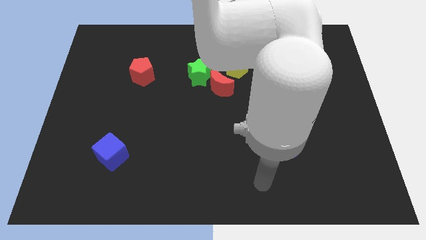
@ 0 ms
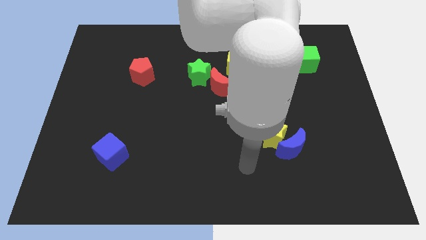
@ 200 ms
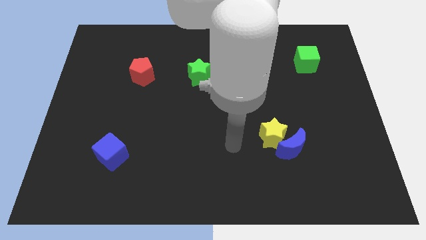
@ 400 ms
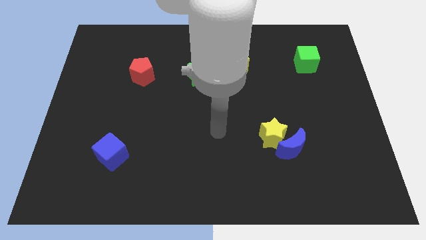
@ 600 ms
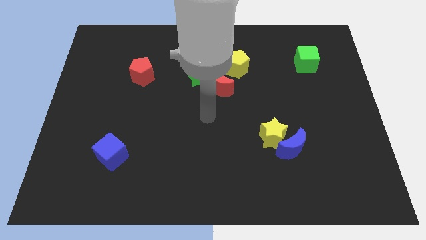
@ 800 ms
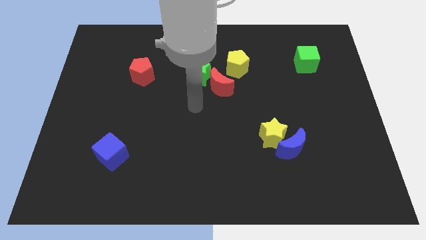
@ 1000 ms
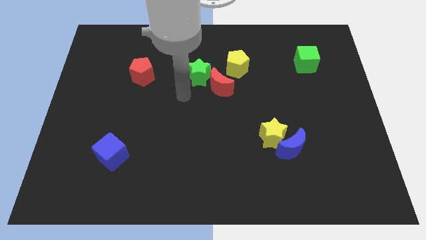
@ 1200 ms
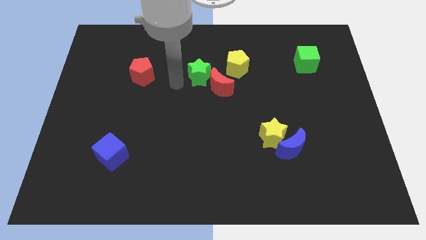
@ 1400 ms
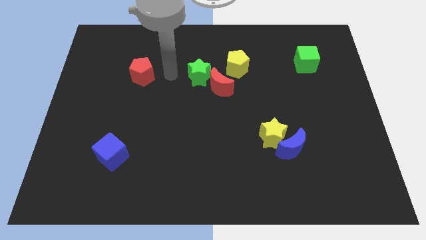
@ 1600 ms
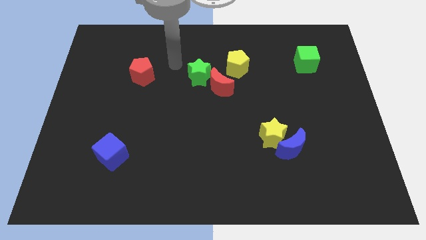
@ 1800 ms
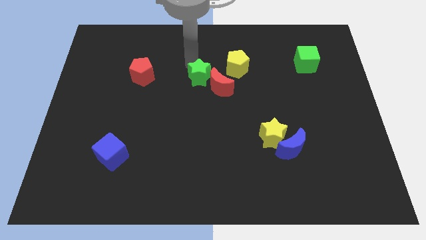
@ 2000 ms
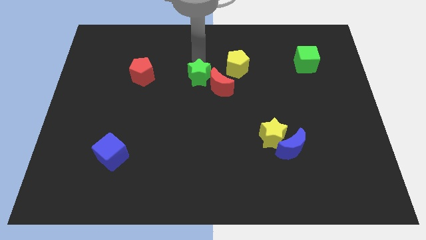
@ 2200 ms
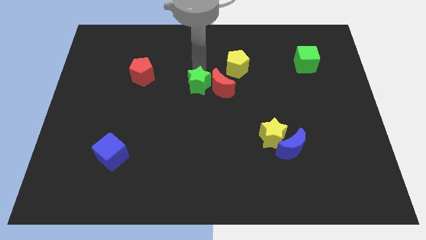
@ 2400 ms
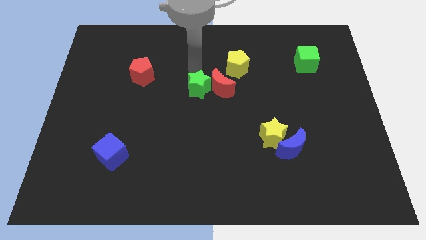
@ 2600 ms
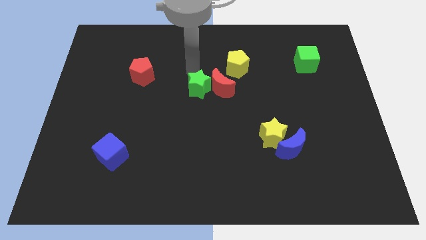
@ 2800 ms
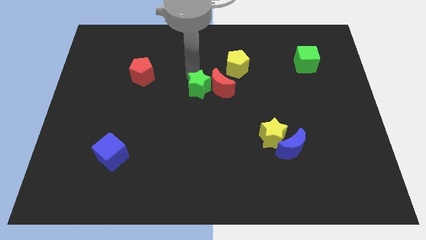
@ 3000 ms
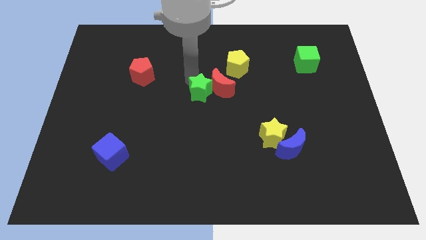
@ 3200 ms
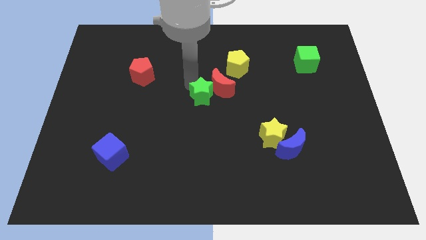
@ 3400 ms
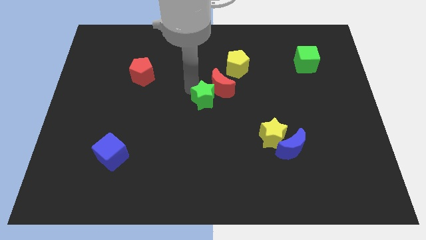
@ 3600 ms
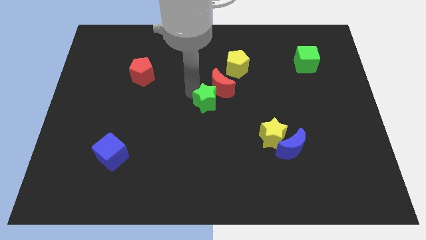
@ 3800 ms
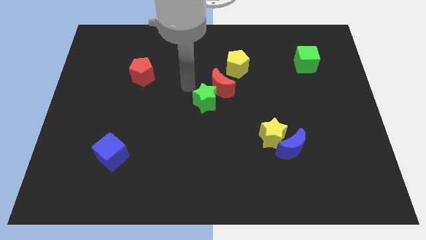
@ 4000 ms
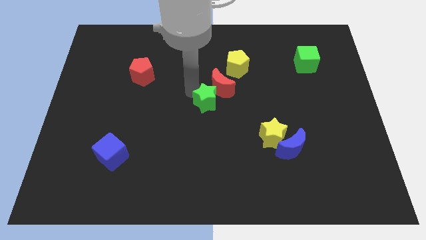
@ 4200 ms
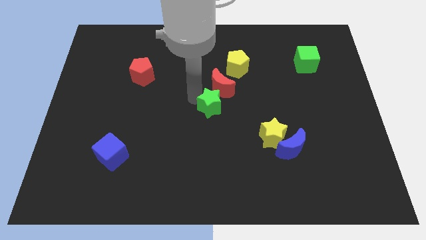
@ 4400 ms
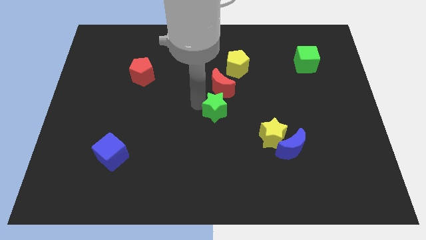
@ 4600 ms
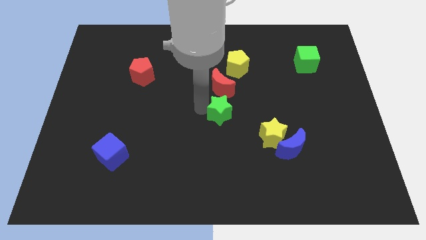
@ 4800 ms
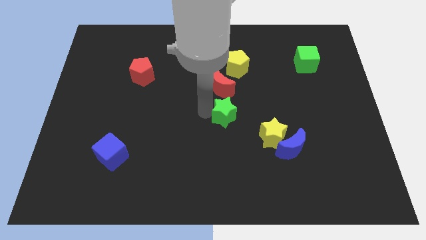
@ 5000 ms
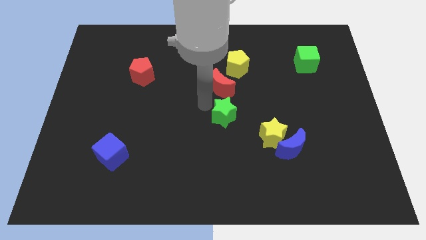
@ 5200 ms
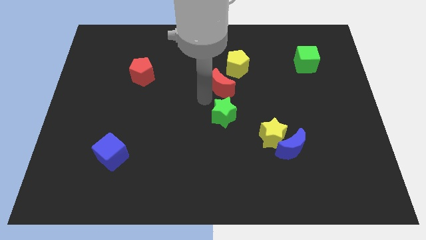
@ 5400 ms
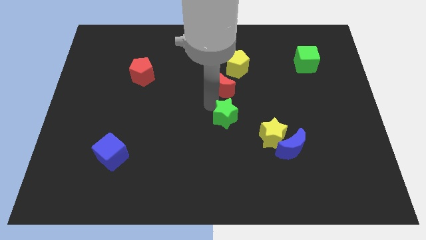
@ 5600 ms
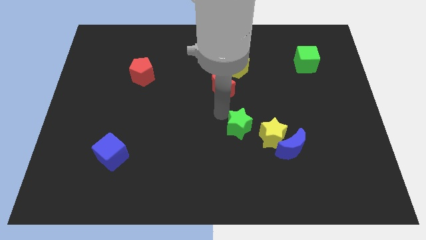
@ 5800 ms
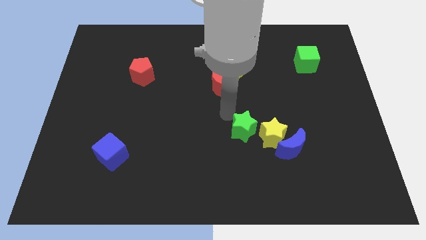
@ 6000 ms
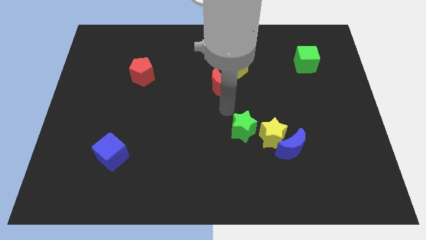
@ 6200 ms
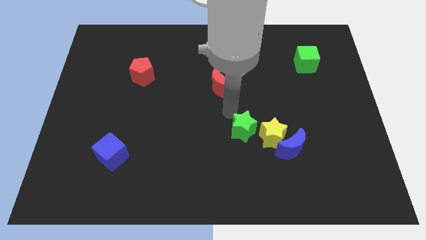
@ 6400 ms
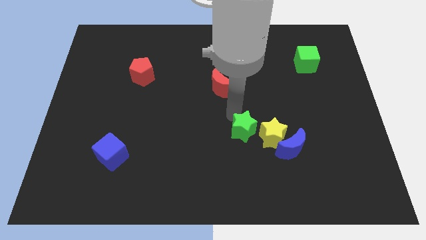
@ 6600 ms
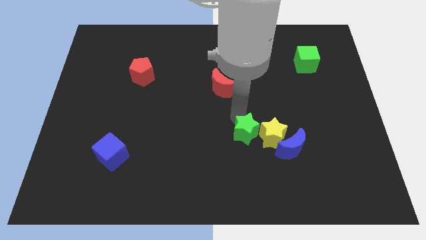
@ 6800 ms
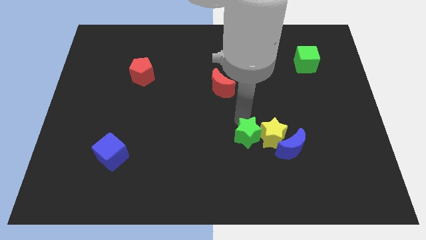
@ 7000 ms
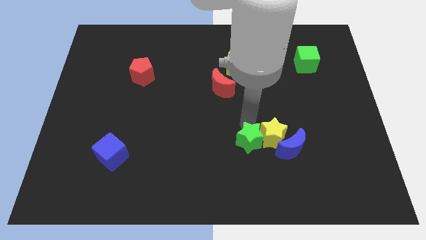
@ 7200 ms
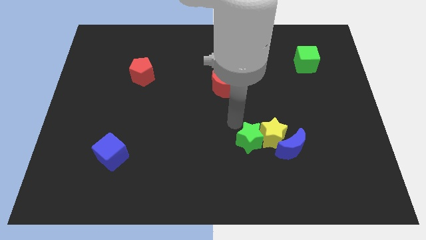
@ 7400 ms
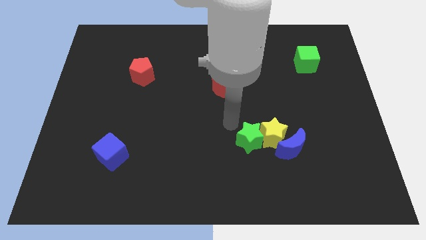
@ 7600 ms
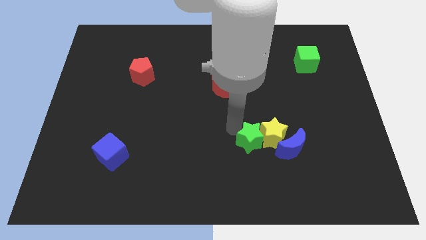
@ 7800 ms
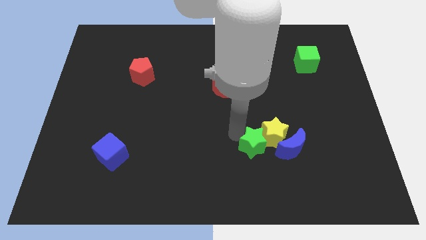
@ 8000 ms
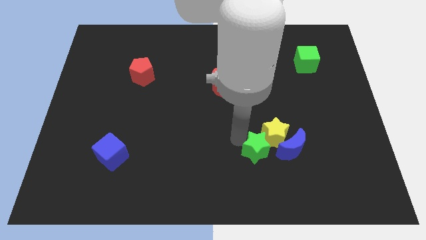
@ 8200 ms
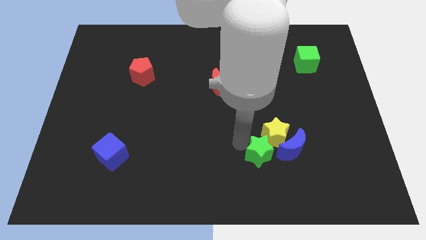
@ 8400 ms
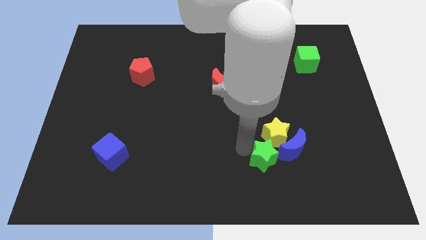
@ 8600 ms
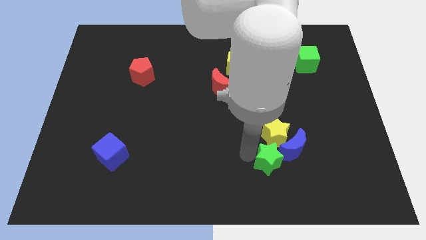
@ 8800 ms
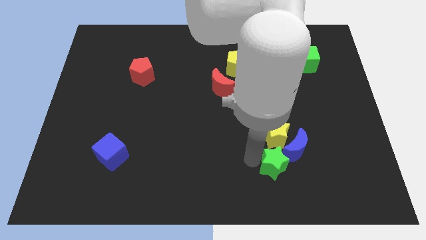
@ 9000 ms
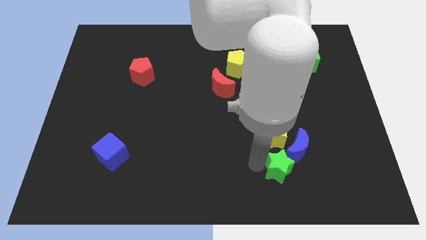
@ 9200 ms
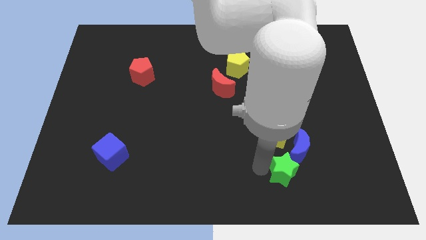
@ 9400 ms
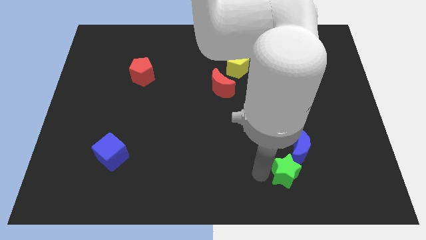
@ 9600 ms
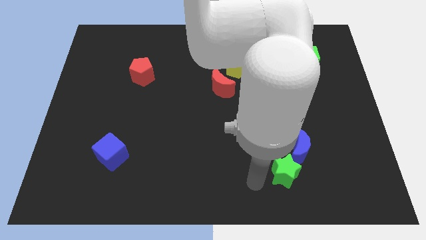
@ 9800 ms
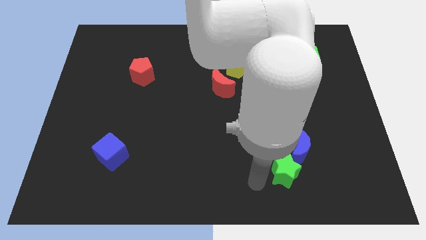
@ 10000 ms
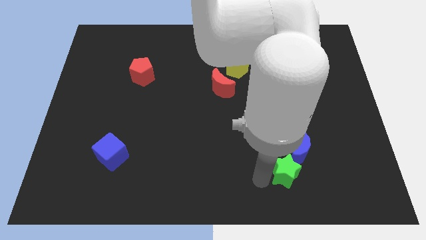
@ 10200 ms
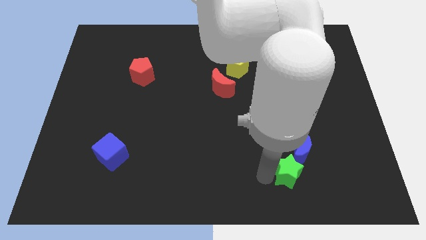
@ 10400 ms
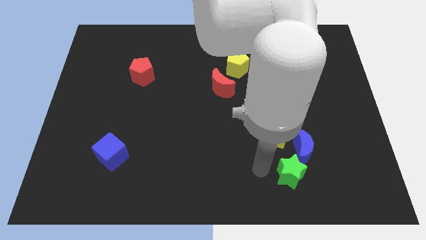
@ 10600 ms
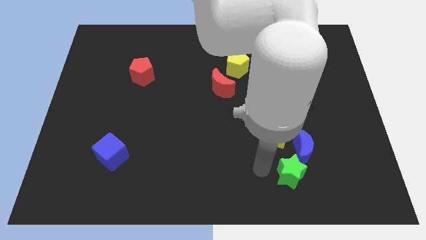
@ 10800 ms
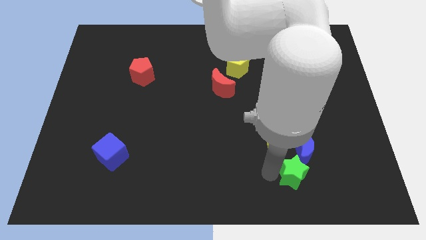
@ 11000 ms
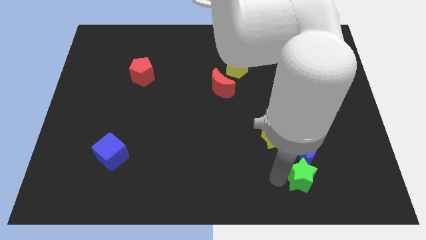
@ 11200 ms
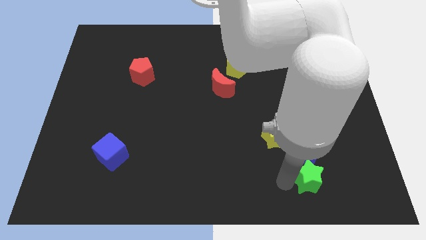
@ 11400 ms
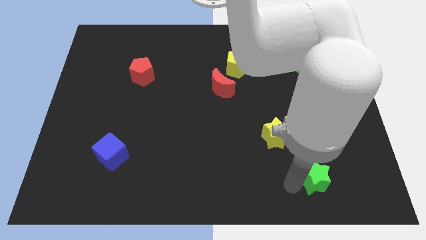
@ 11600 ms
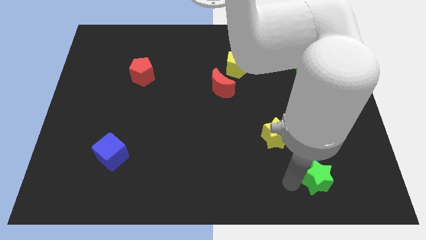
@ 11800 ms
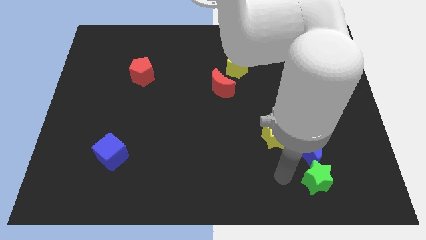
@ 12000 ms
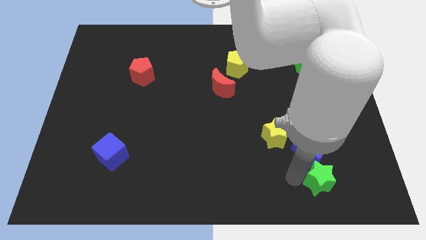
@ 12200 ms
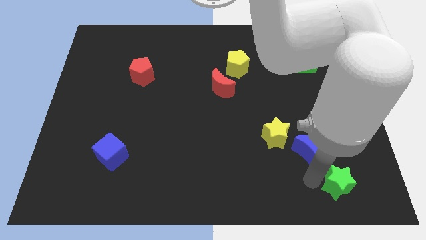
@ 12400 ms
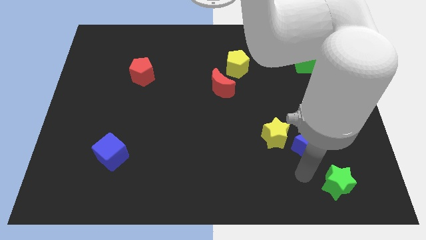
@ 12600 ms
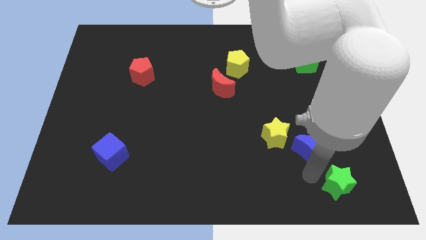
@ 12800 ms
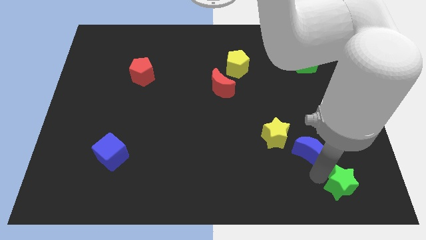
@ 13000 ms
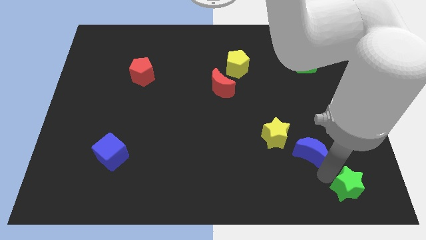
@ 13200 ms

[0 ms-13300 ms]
slide the green star to the lower right corner
